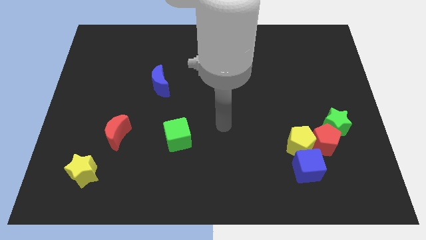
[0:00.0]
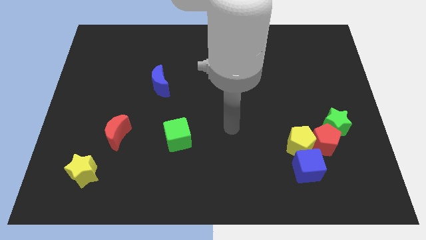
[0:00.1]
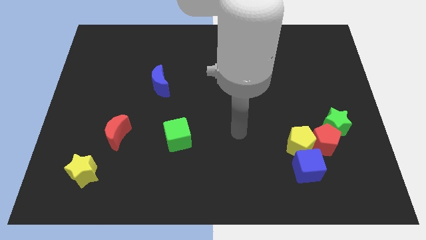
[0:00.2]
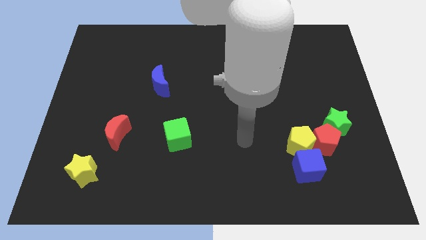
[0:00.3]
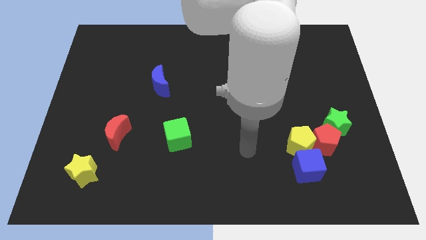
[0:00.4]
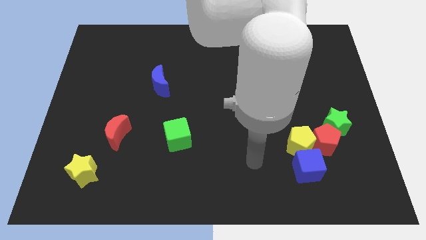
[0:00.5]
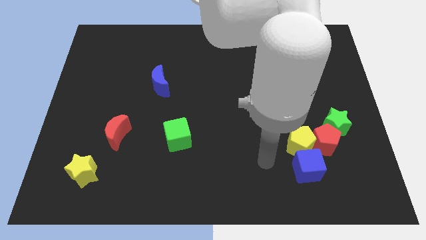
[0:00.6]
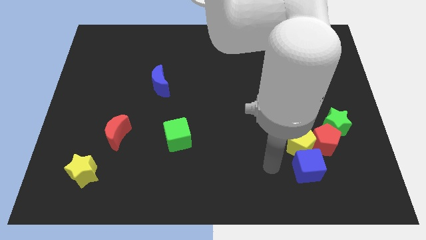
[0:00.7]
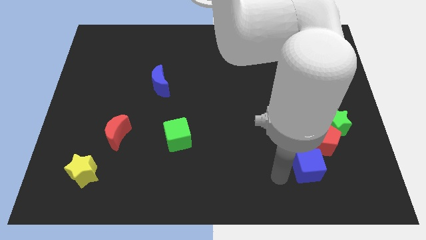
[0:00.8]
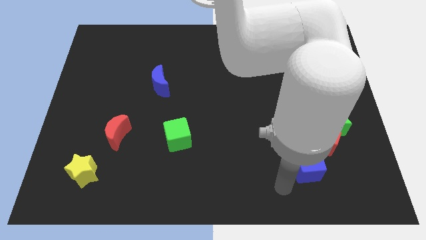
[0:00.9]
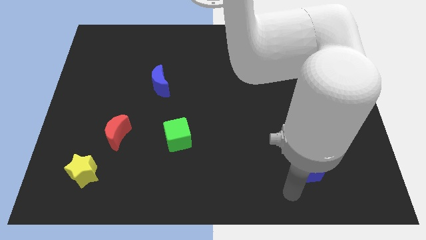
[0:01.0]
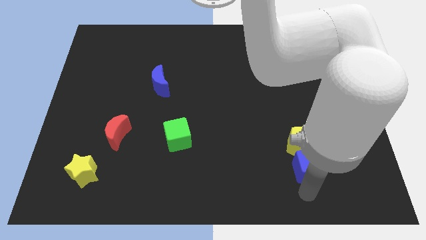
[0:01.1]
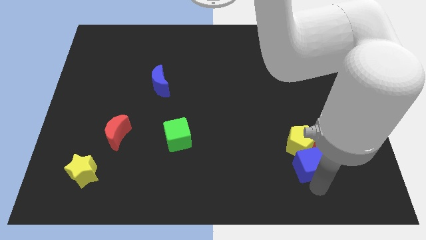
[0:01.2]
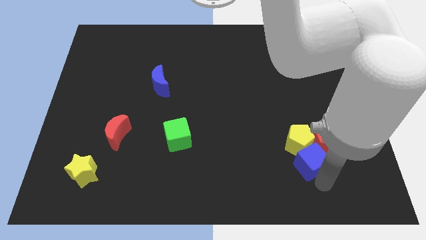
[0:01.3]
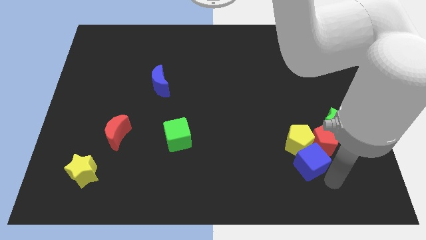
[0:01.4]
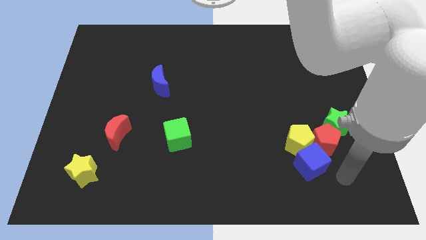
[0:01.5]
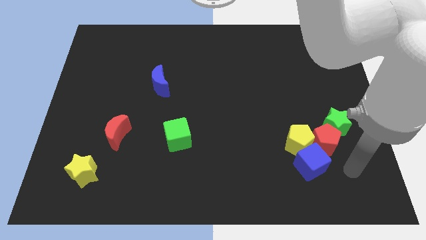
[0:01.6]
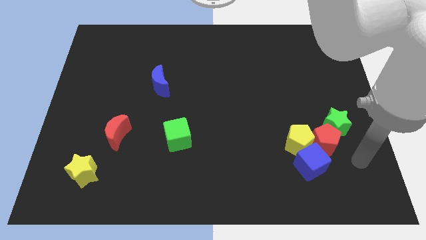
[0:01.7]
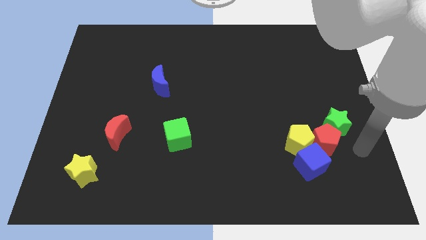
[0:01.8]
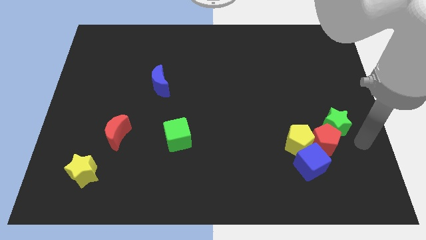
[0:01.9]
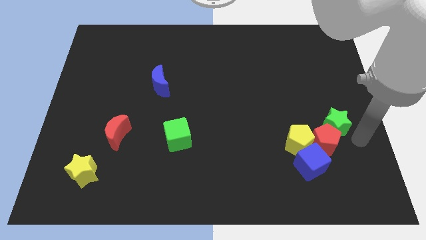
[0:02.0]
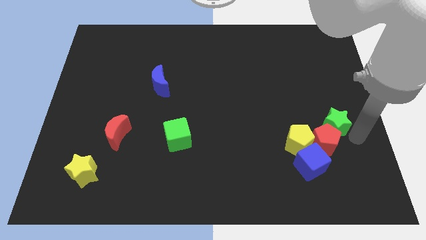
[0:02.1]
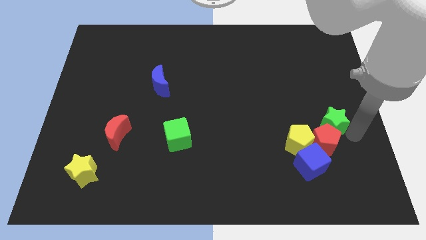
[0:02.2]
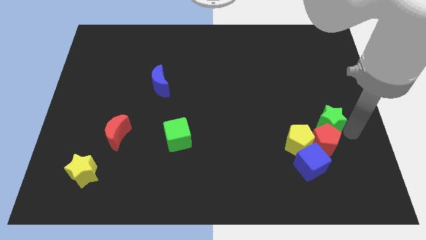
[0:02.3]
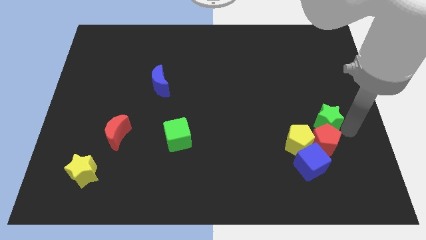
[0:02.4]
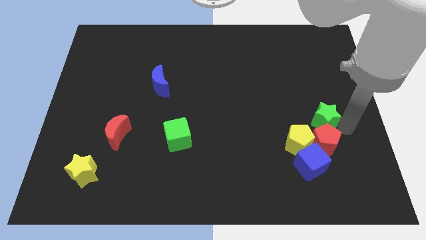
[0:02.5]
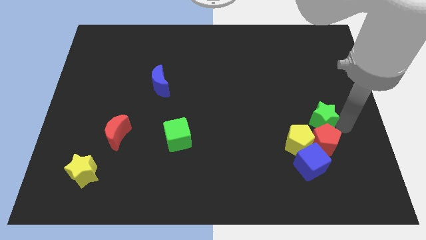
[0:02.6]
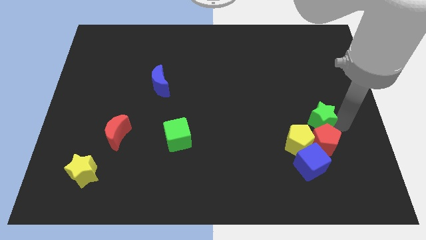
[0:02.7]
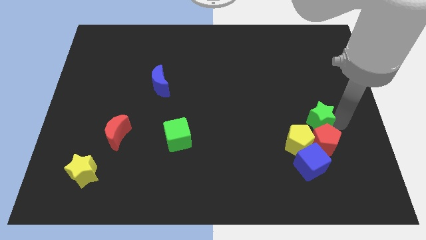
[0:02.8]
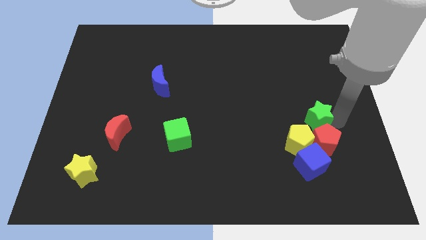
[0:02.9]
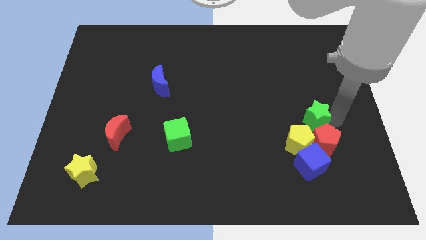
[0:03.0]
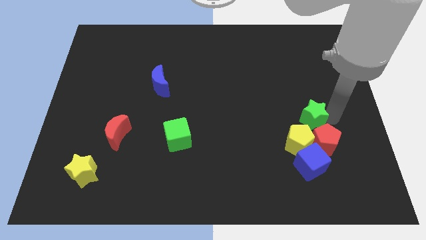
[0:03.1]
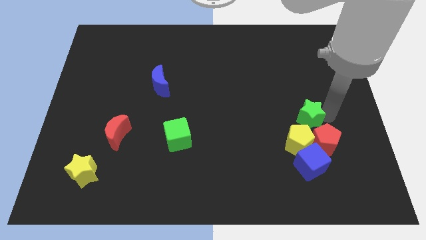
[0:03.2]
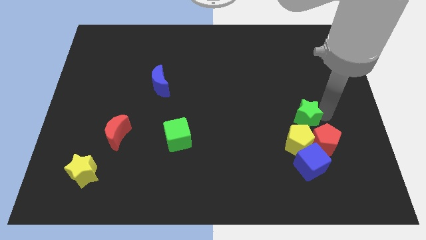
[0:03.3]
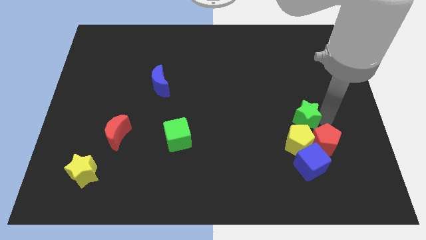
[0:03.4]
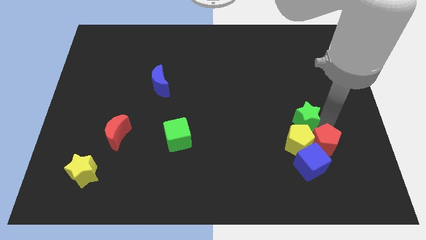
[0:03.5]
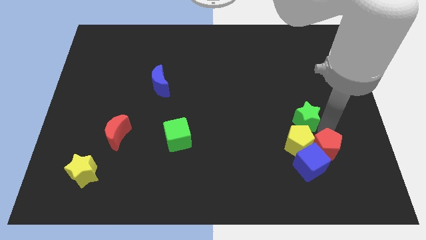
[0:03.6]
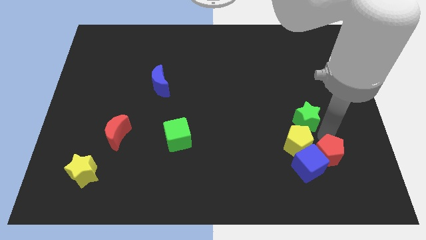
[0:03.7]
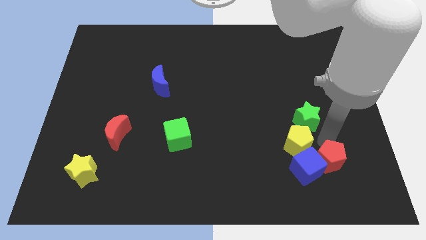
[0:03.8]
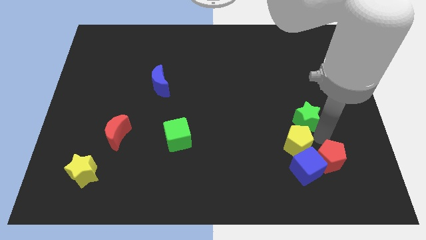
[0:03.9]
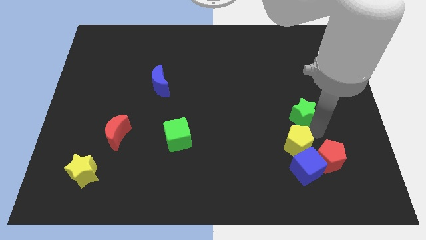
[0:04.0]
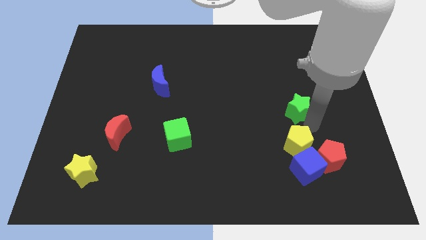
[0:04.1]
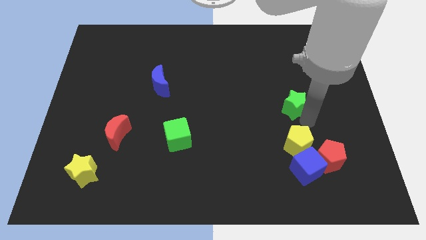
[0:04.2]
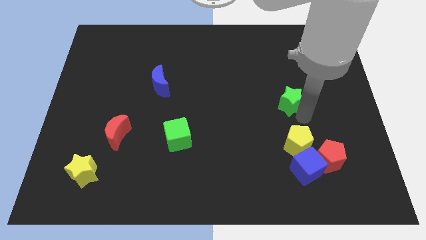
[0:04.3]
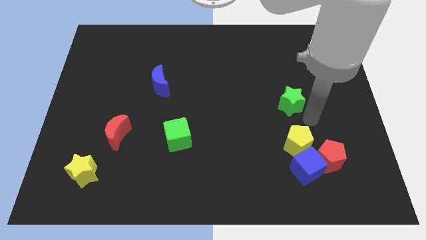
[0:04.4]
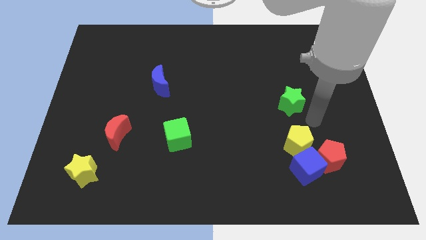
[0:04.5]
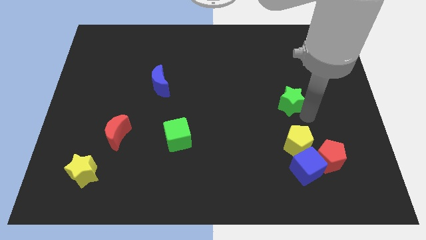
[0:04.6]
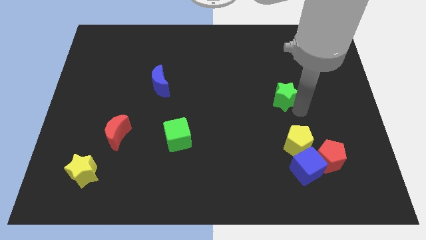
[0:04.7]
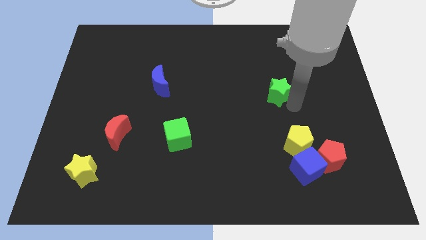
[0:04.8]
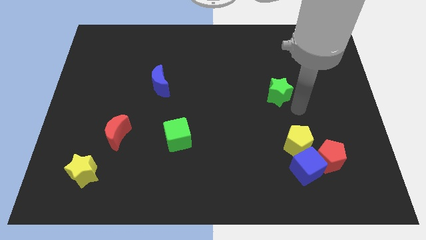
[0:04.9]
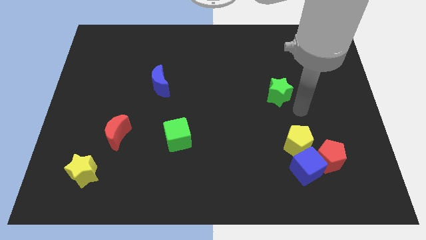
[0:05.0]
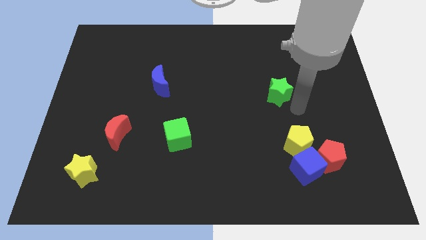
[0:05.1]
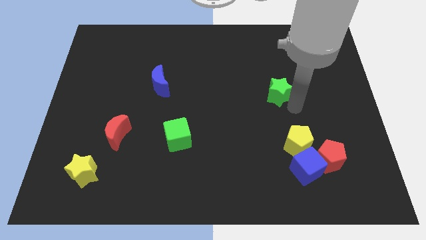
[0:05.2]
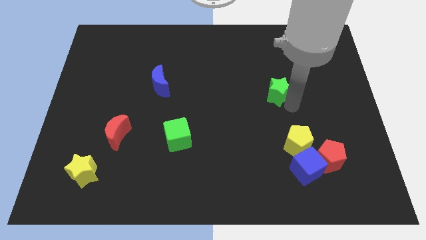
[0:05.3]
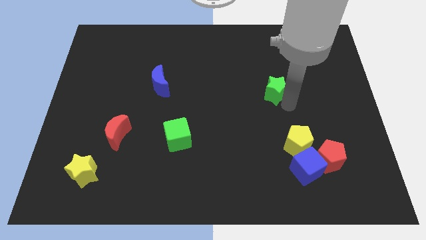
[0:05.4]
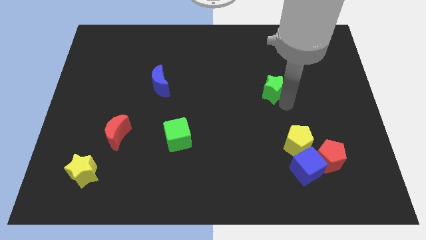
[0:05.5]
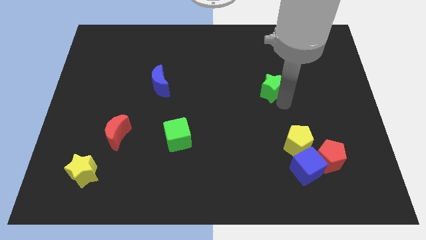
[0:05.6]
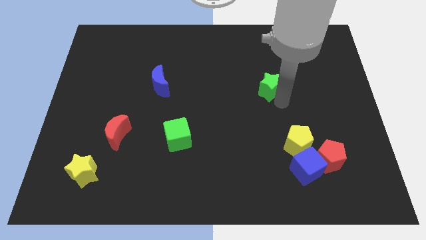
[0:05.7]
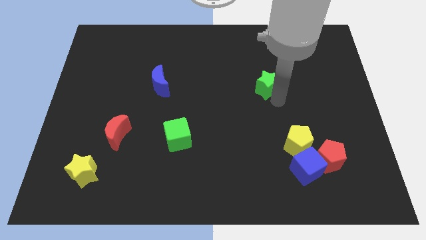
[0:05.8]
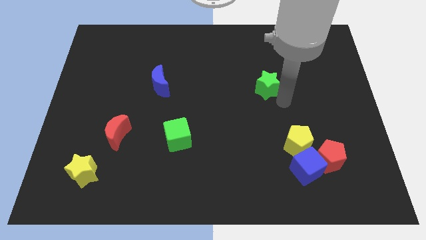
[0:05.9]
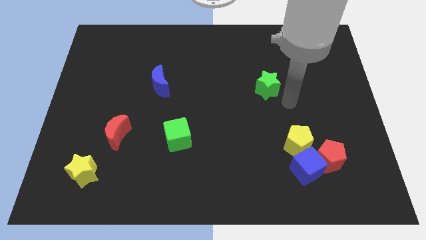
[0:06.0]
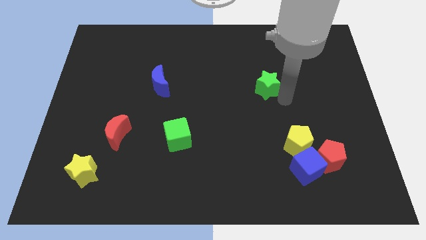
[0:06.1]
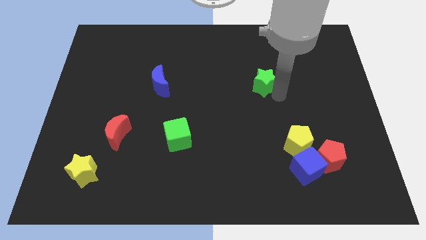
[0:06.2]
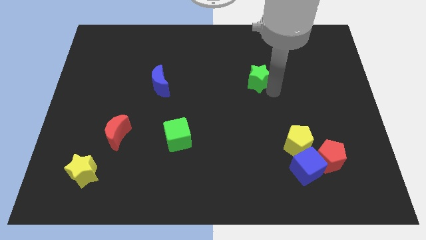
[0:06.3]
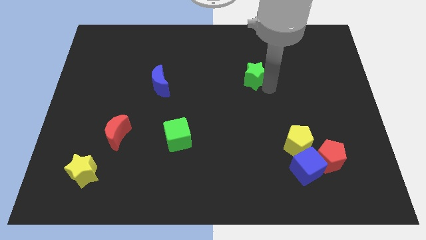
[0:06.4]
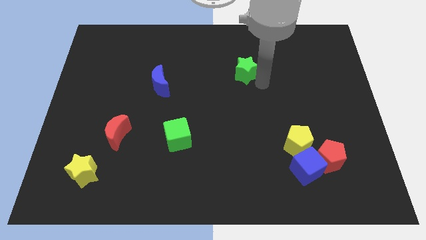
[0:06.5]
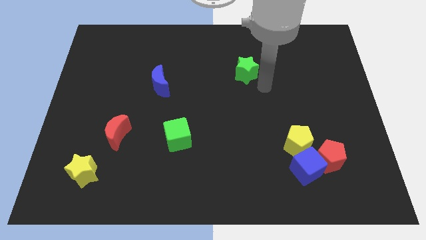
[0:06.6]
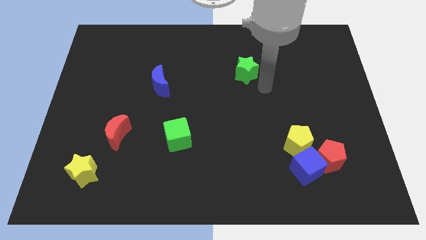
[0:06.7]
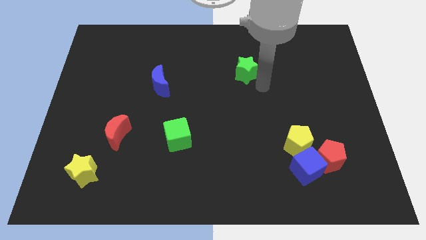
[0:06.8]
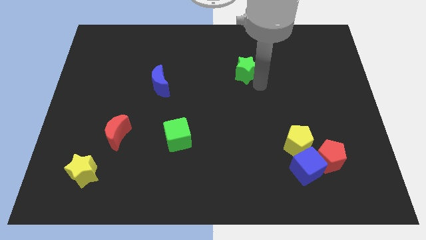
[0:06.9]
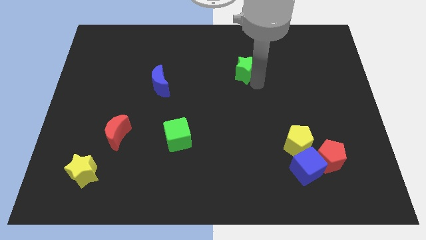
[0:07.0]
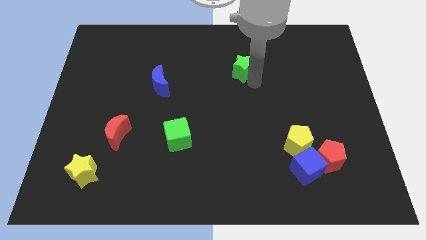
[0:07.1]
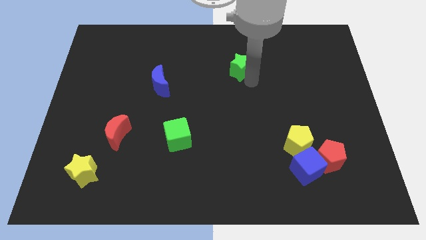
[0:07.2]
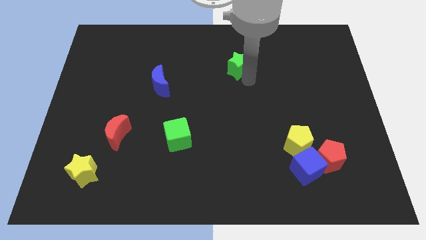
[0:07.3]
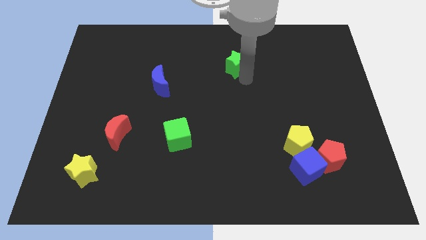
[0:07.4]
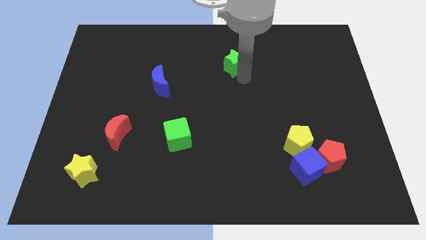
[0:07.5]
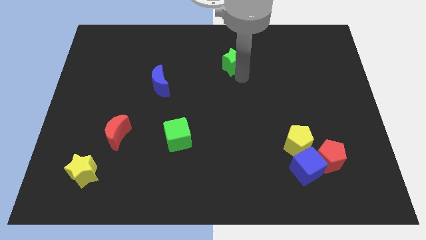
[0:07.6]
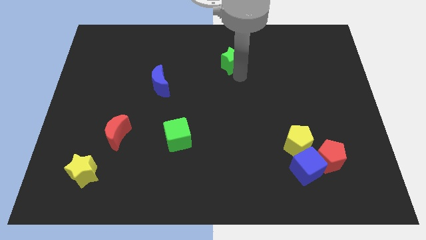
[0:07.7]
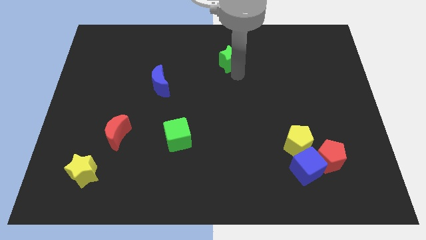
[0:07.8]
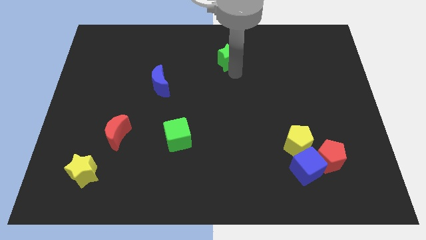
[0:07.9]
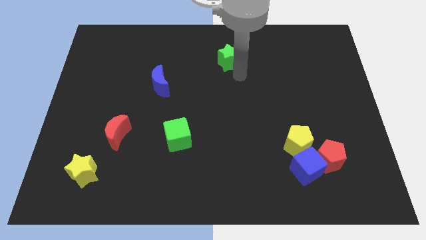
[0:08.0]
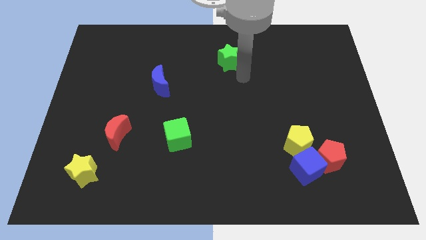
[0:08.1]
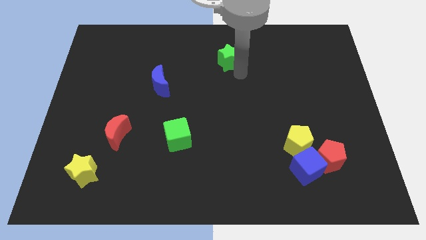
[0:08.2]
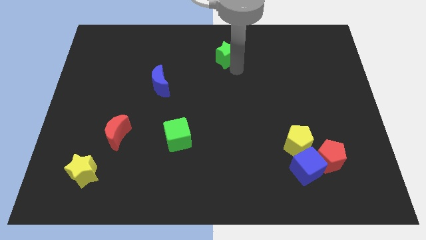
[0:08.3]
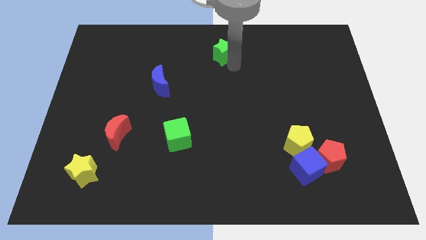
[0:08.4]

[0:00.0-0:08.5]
put the green star to the top side
